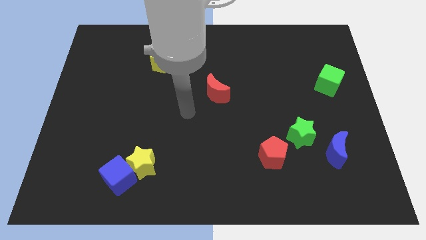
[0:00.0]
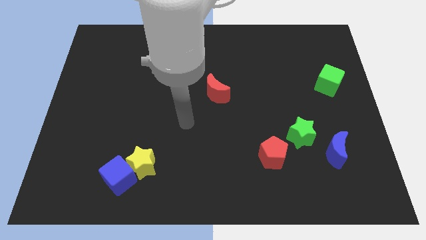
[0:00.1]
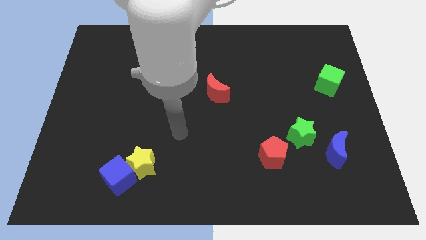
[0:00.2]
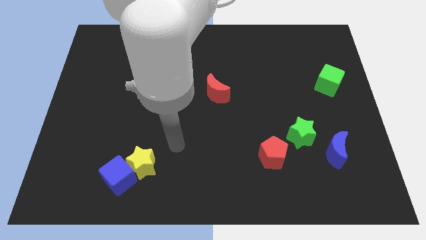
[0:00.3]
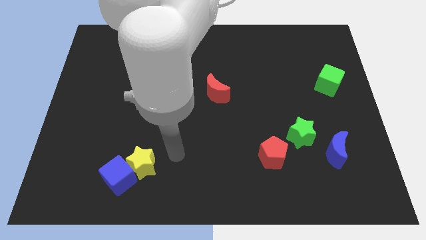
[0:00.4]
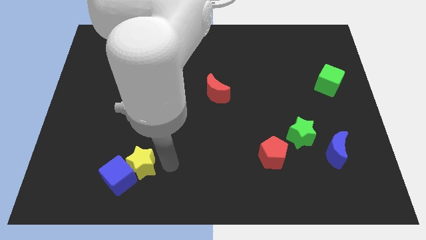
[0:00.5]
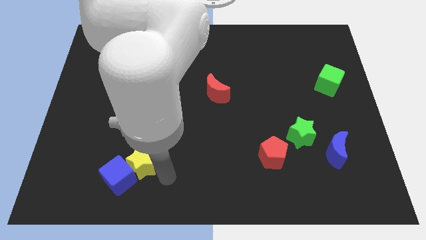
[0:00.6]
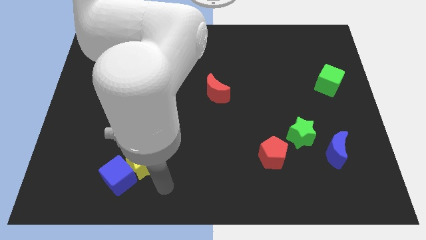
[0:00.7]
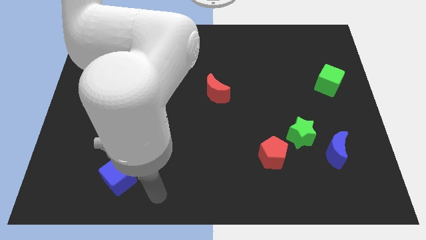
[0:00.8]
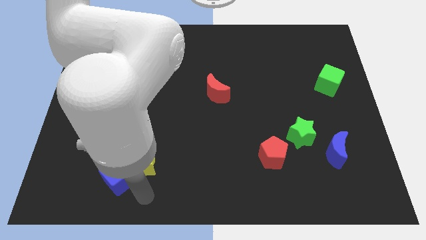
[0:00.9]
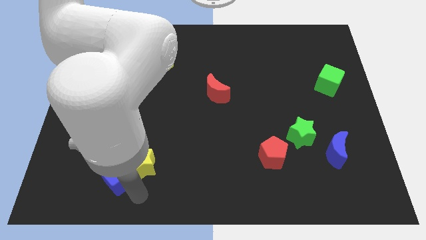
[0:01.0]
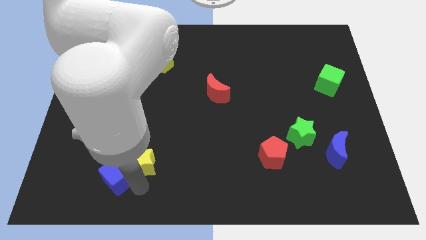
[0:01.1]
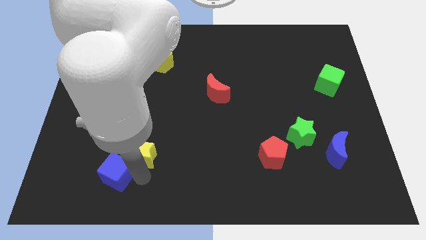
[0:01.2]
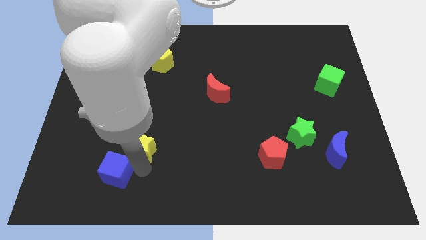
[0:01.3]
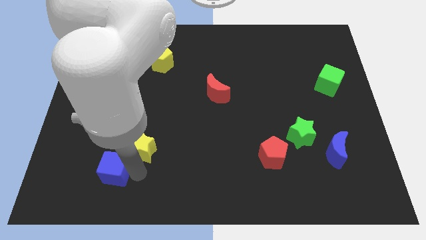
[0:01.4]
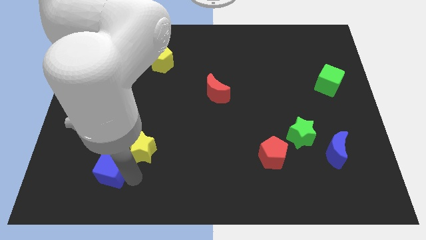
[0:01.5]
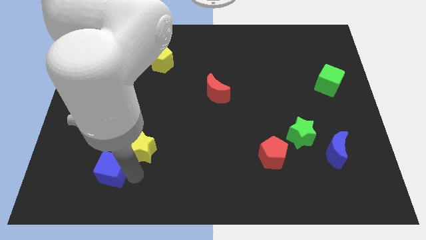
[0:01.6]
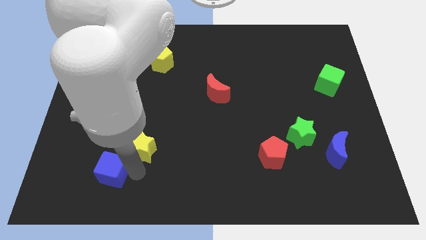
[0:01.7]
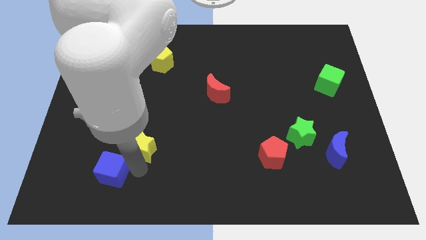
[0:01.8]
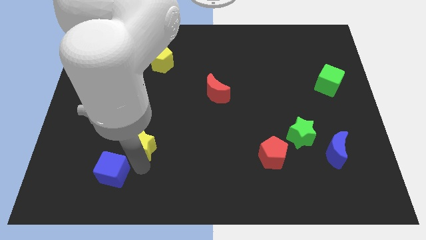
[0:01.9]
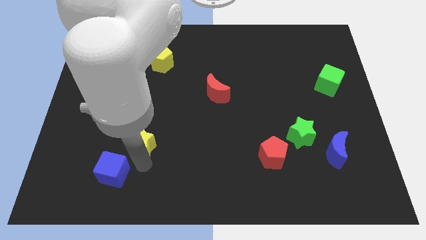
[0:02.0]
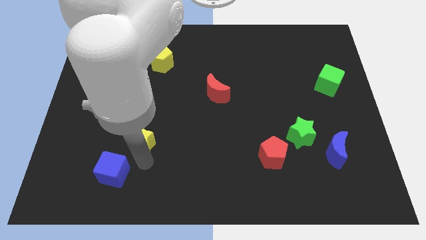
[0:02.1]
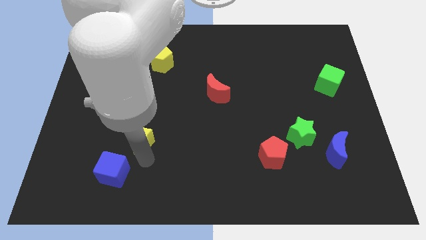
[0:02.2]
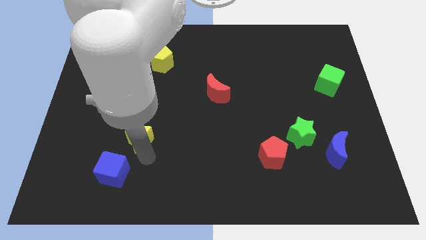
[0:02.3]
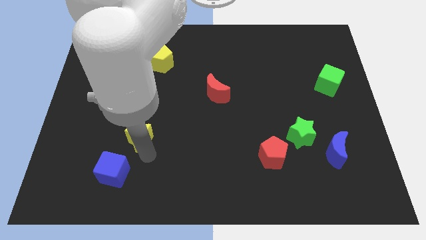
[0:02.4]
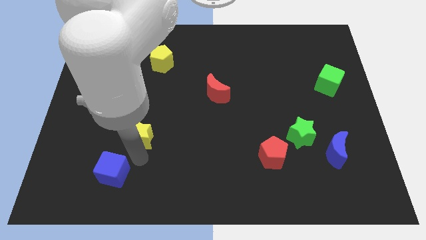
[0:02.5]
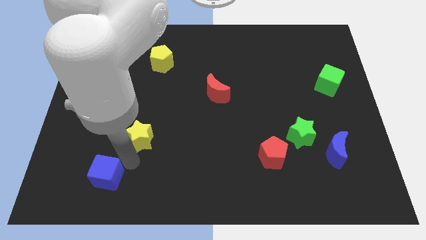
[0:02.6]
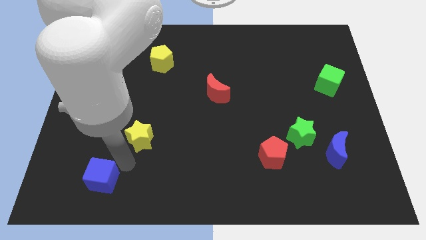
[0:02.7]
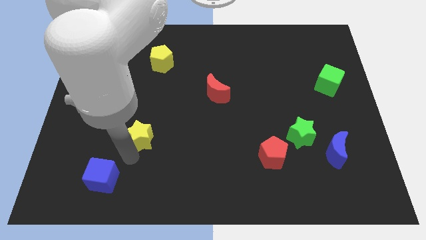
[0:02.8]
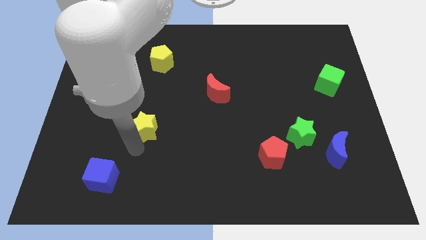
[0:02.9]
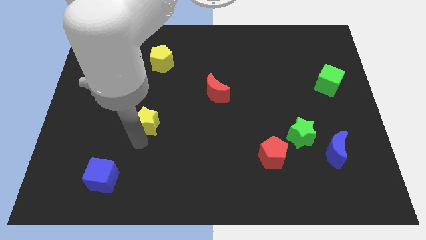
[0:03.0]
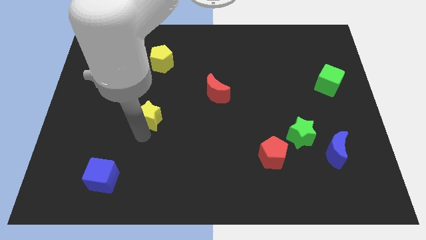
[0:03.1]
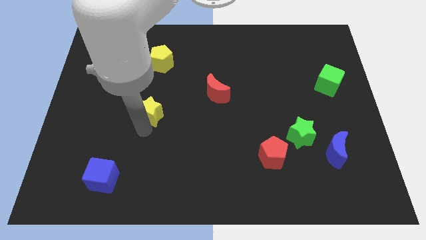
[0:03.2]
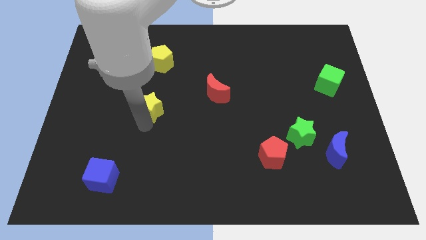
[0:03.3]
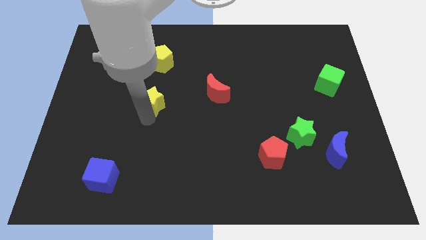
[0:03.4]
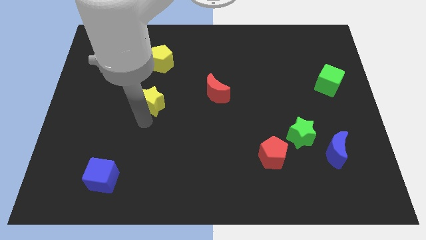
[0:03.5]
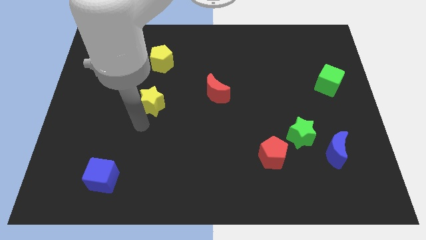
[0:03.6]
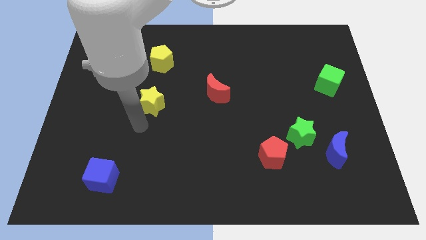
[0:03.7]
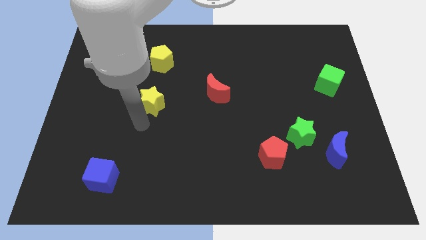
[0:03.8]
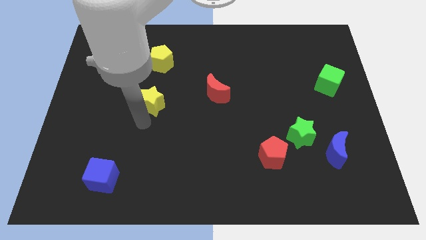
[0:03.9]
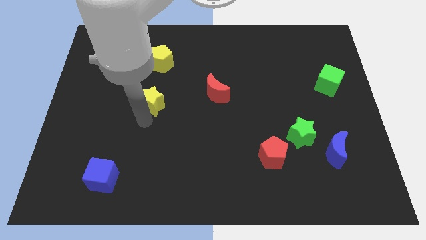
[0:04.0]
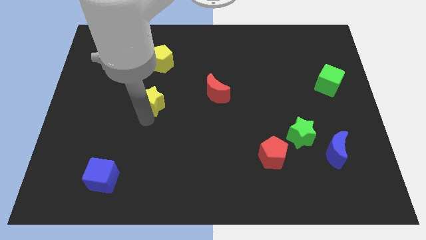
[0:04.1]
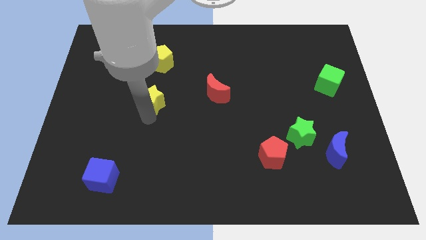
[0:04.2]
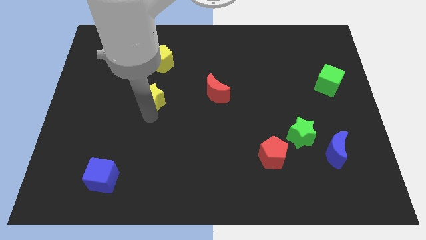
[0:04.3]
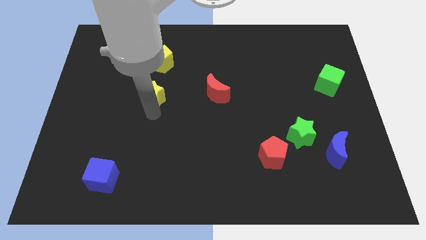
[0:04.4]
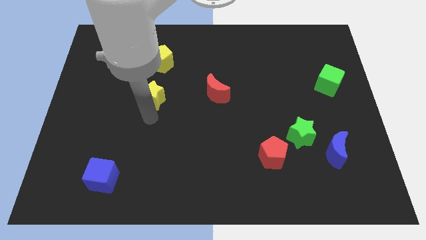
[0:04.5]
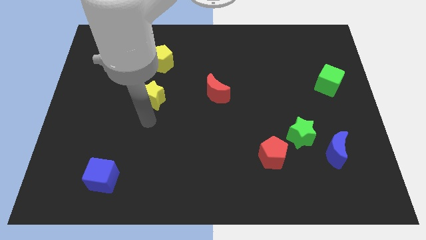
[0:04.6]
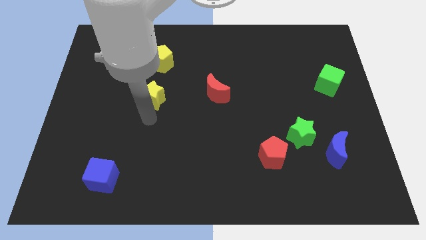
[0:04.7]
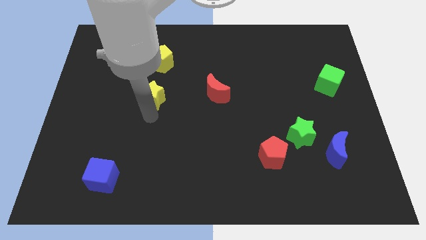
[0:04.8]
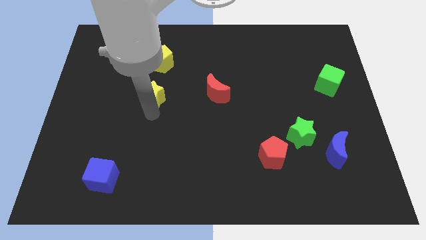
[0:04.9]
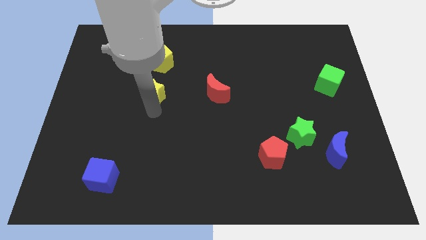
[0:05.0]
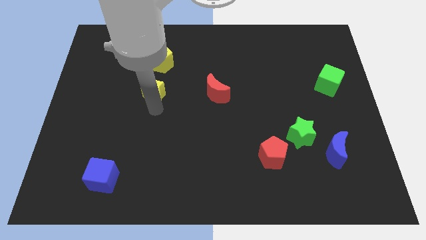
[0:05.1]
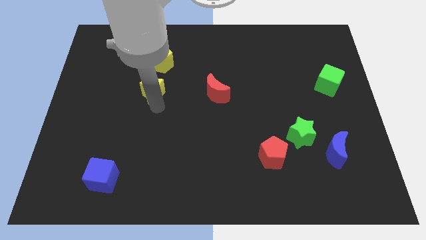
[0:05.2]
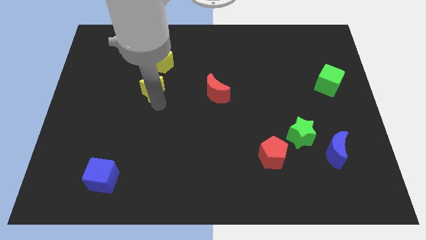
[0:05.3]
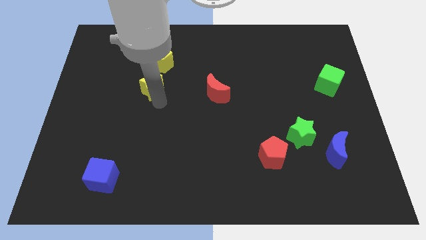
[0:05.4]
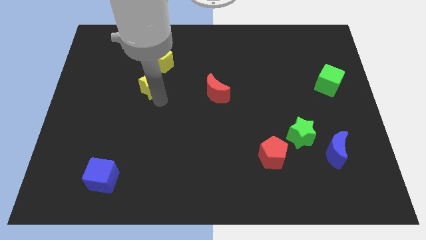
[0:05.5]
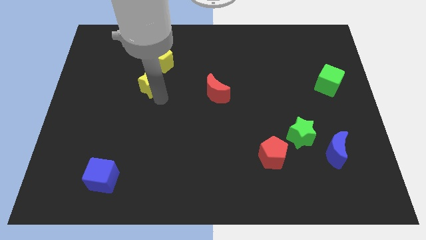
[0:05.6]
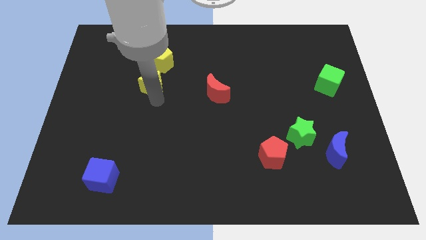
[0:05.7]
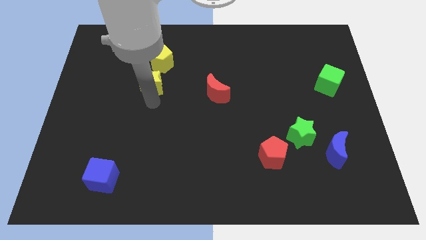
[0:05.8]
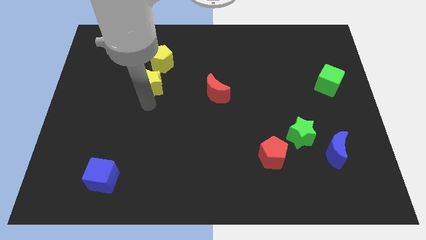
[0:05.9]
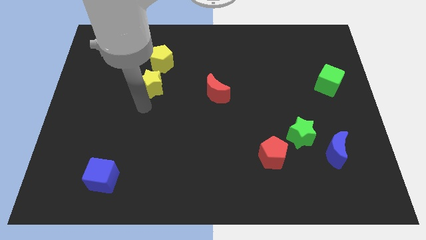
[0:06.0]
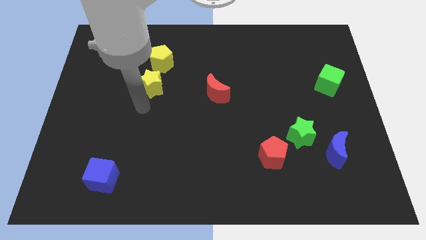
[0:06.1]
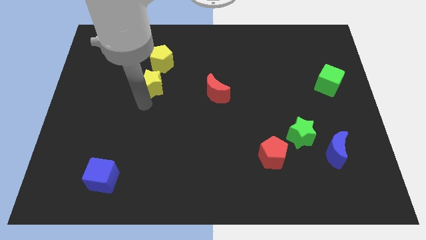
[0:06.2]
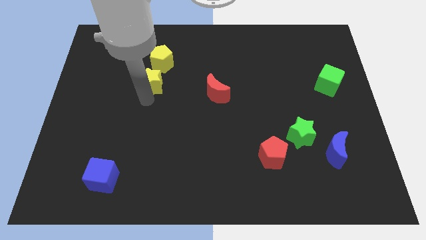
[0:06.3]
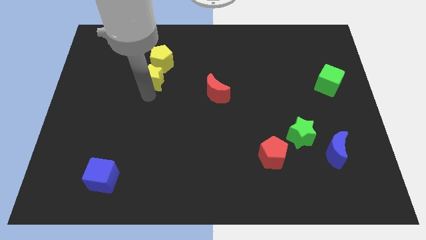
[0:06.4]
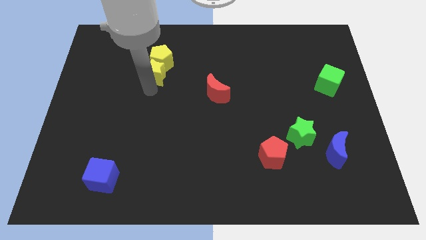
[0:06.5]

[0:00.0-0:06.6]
move the yellow star towards the yellow pentagon
